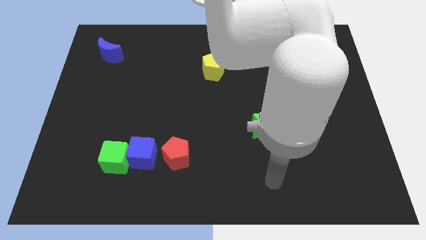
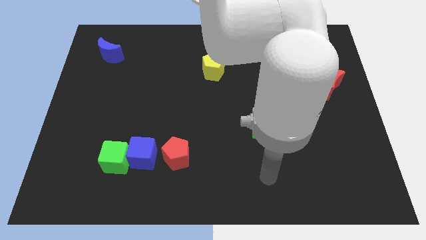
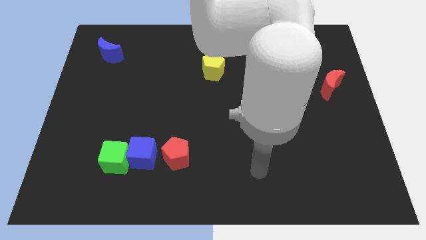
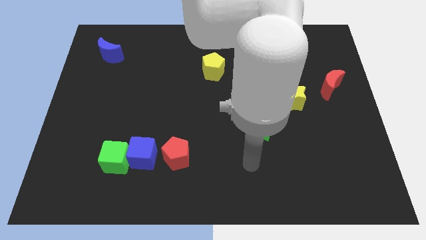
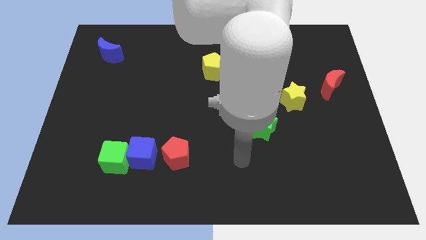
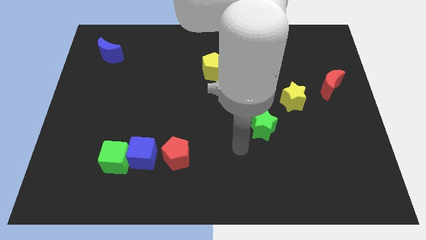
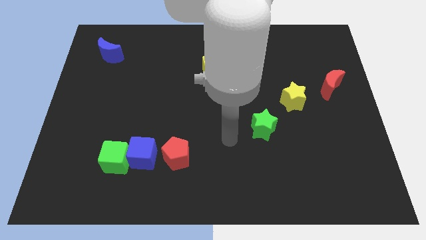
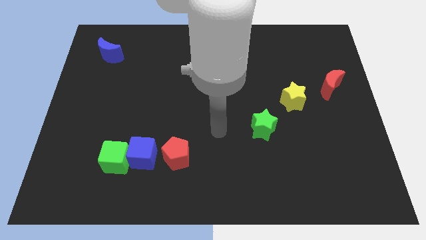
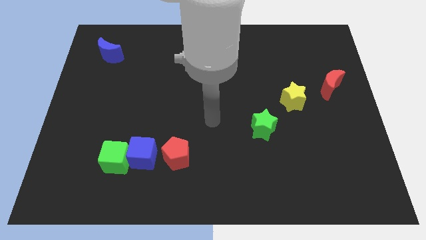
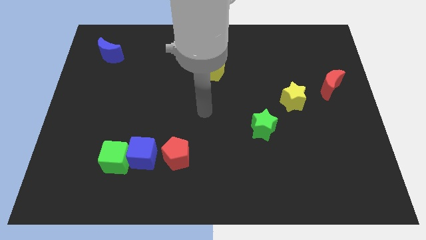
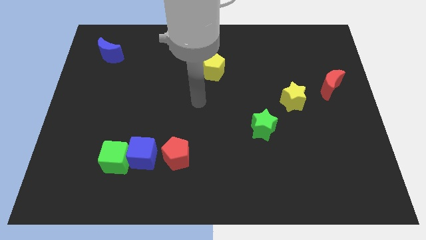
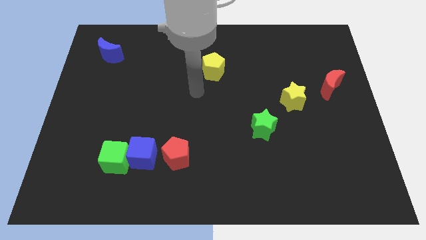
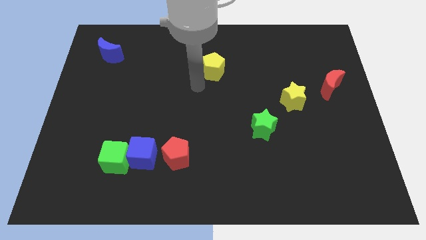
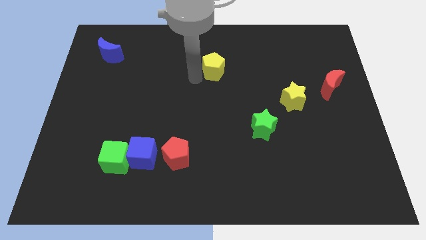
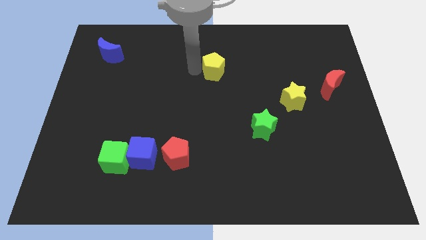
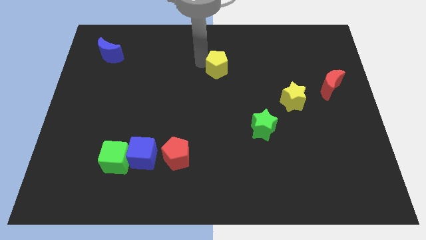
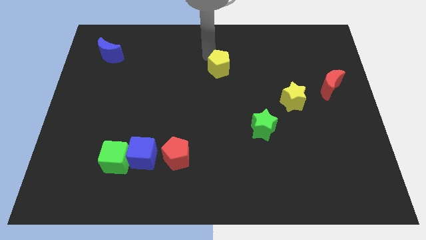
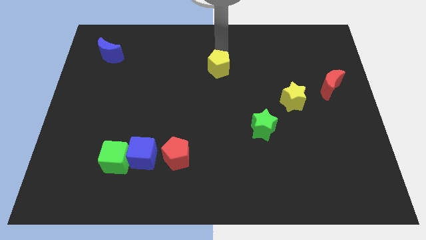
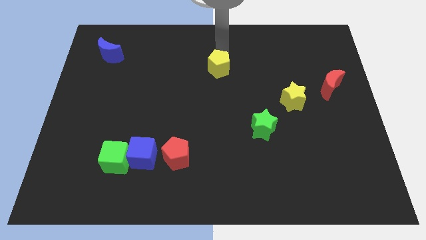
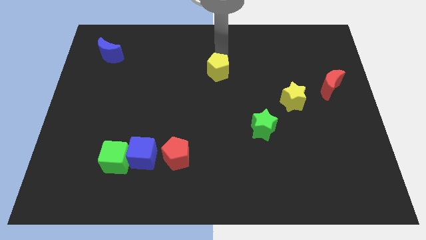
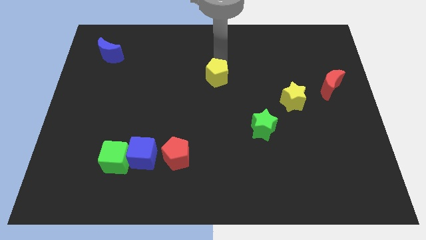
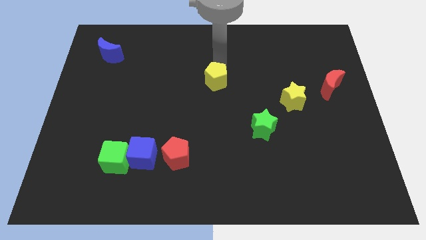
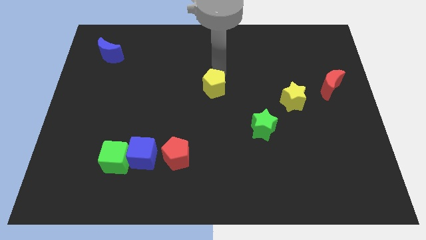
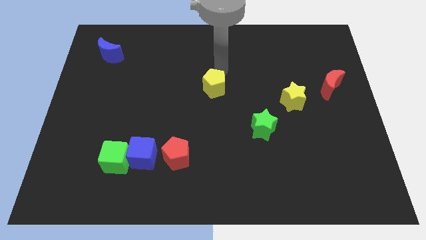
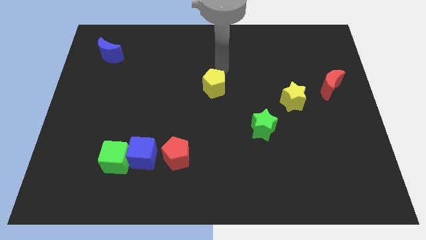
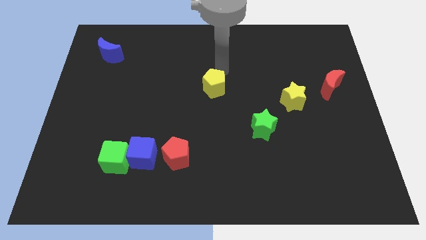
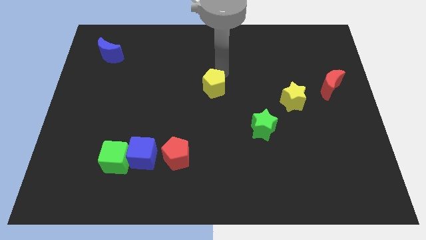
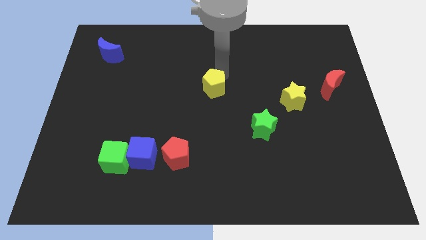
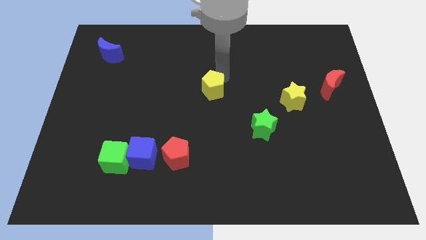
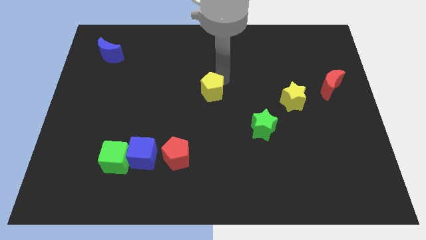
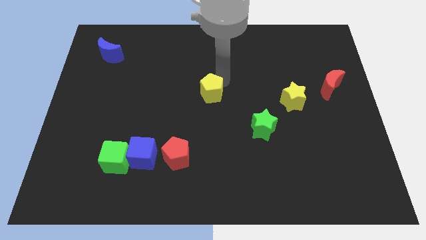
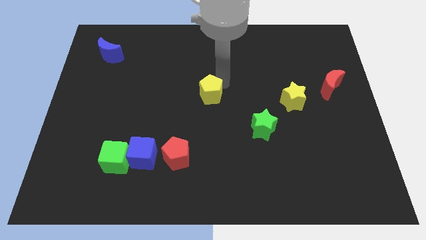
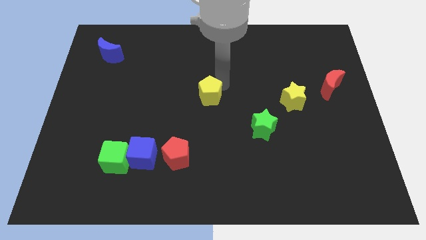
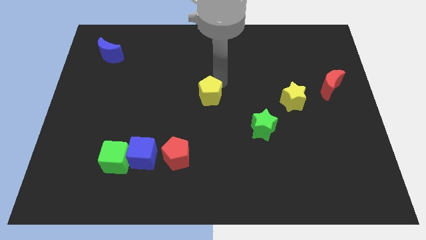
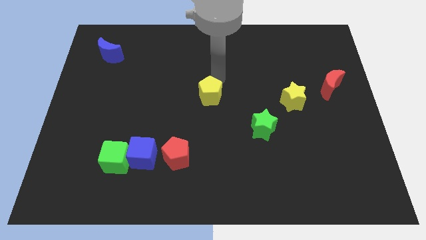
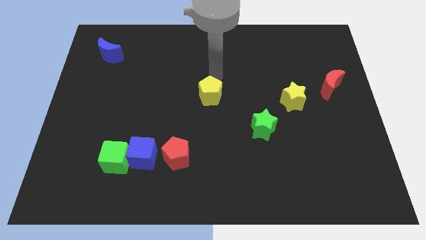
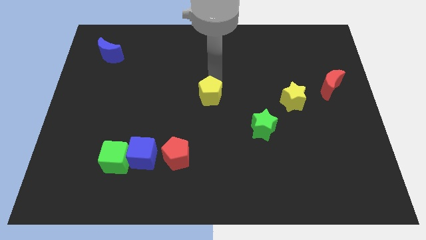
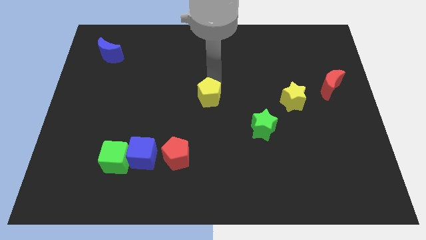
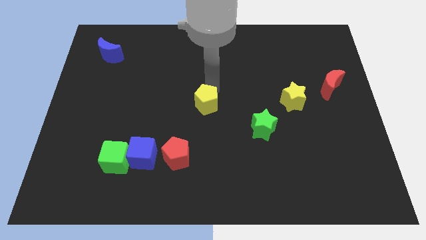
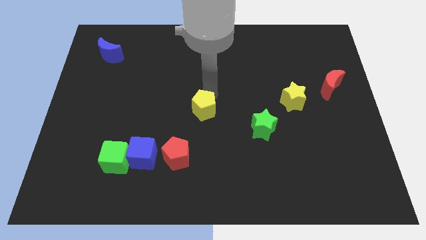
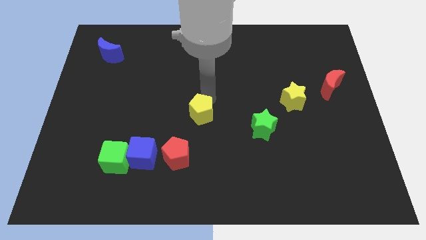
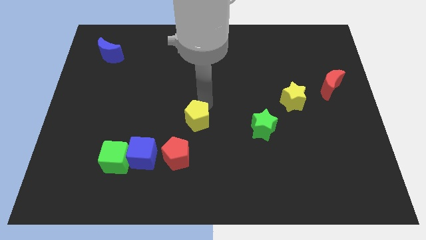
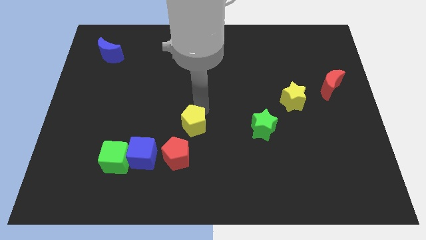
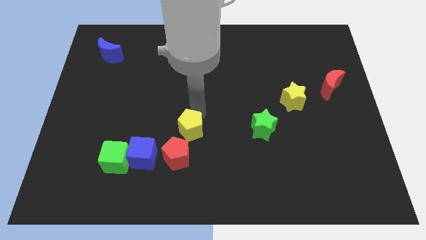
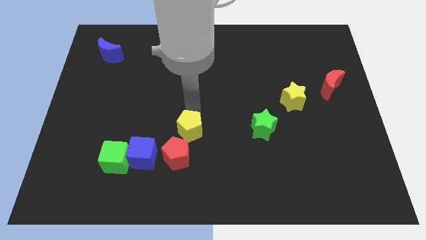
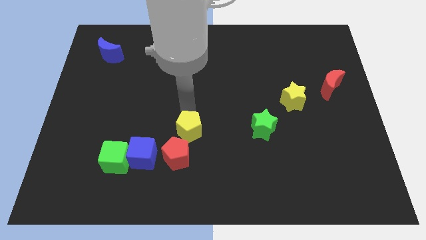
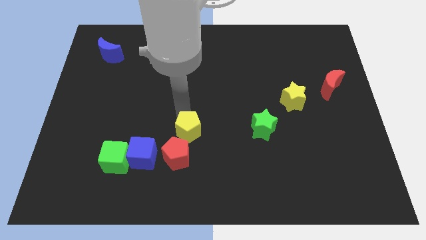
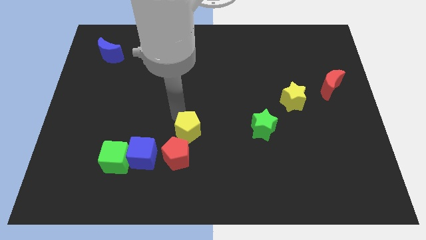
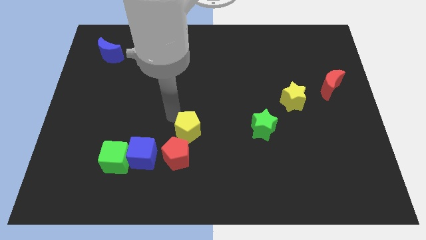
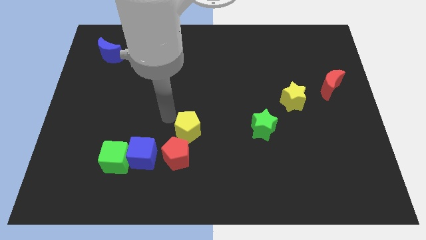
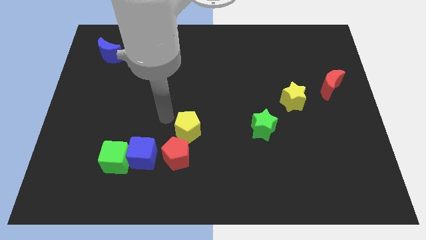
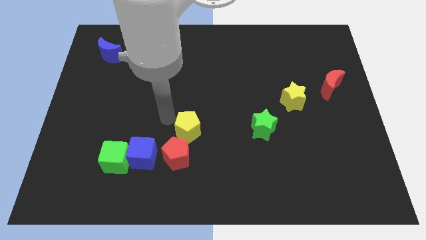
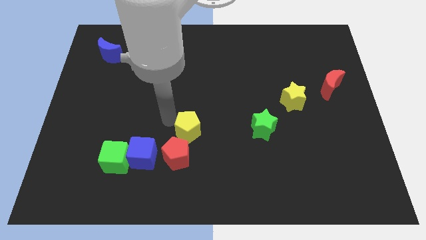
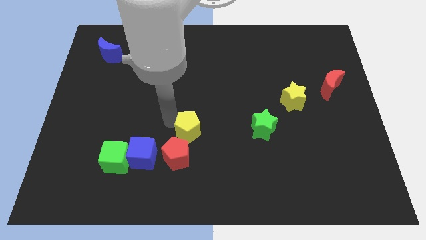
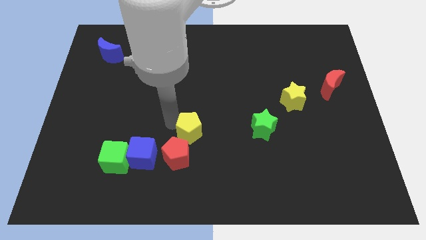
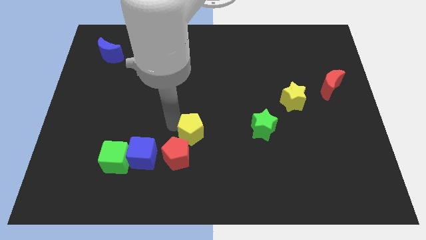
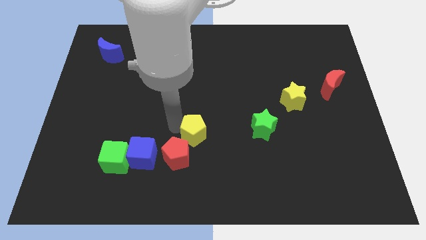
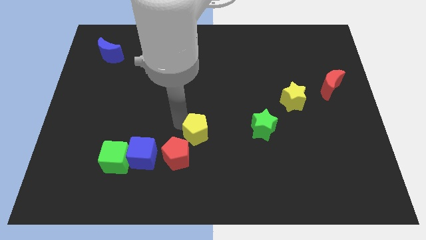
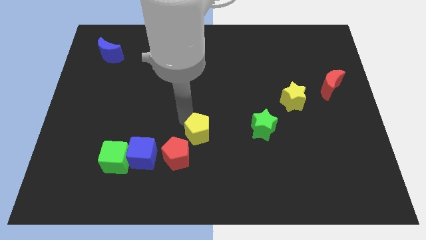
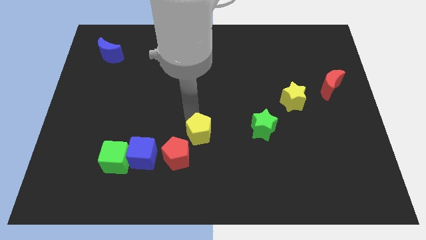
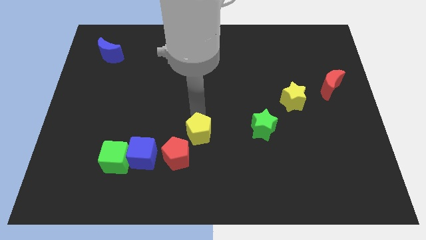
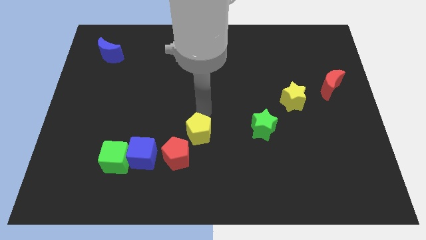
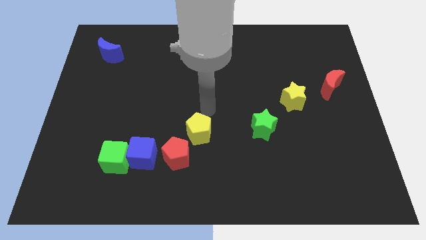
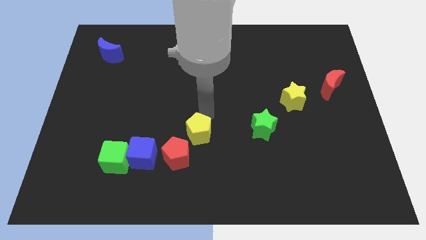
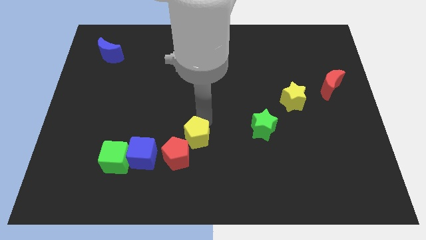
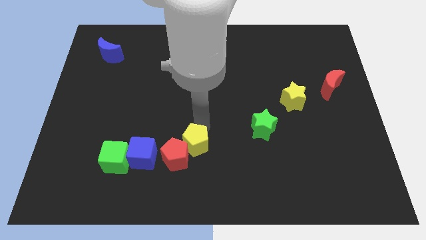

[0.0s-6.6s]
move the yellow pentagon to the right of the blue cube

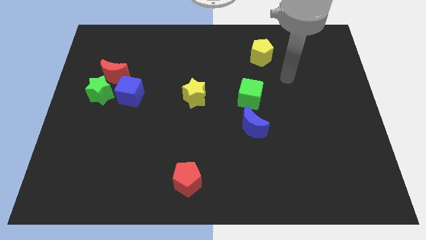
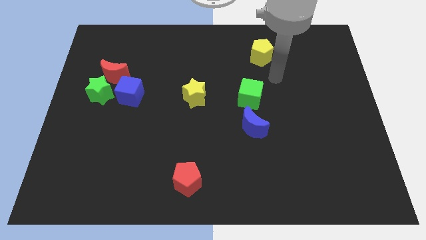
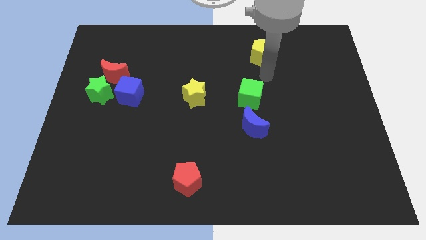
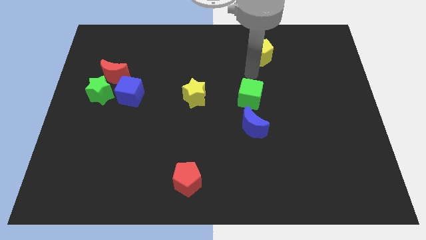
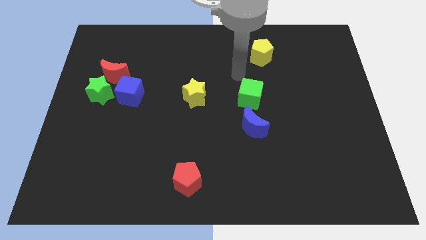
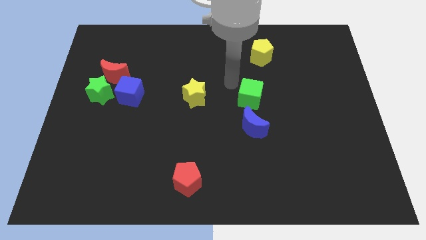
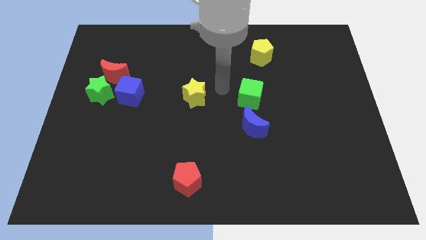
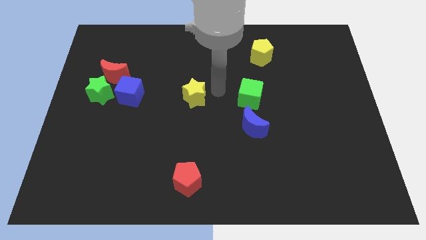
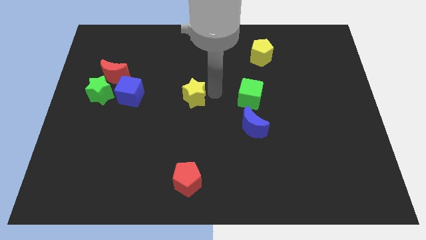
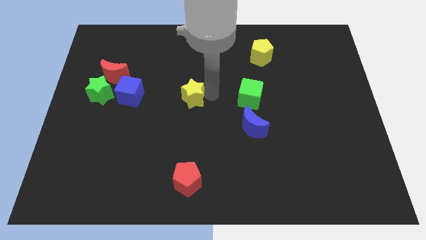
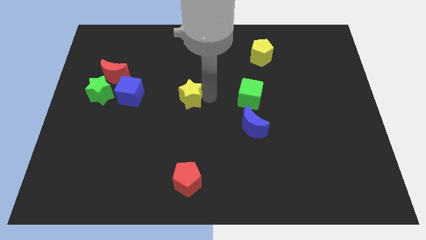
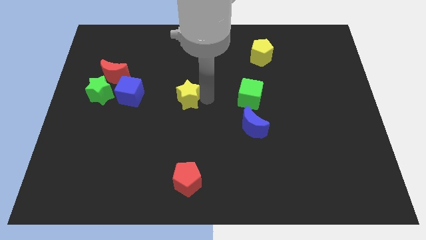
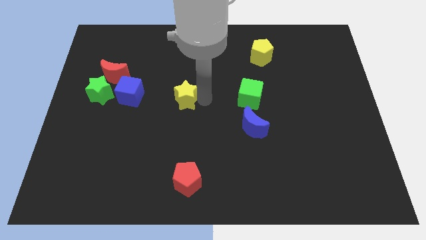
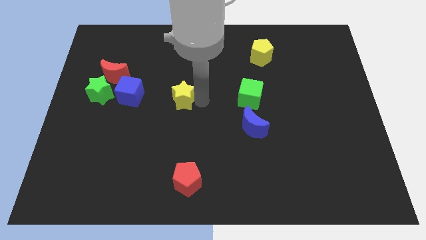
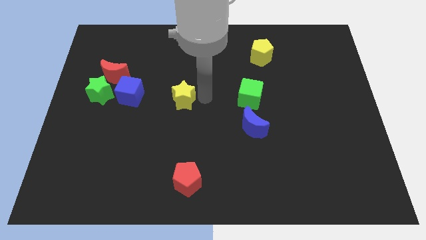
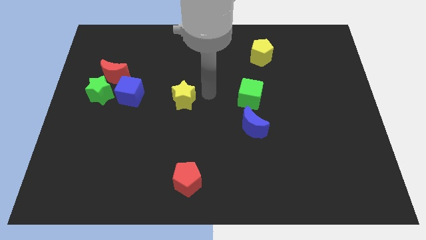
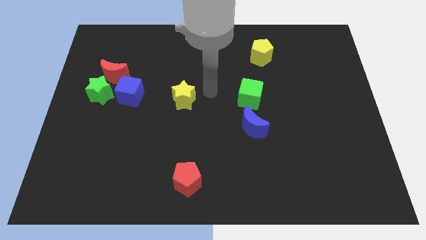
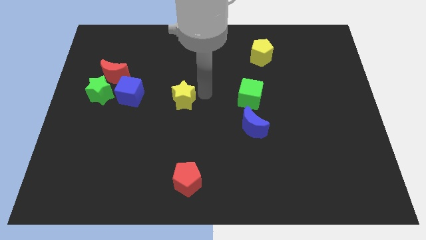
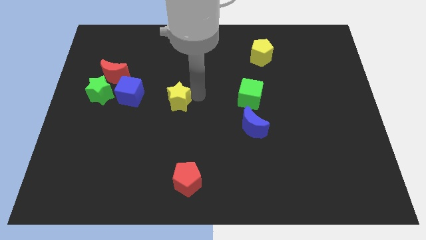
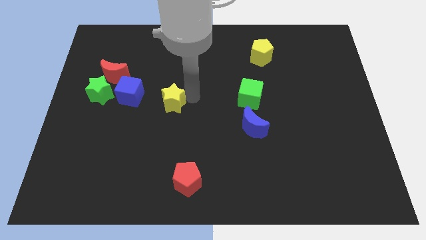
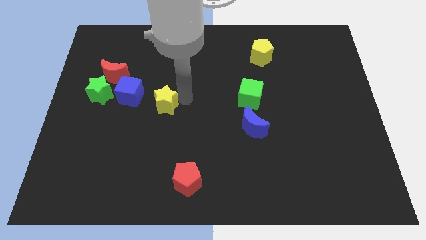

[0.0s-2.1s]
slide the yellow star to the bottom right side of the blue cube
